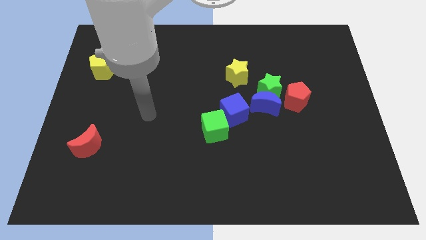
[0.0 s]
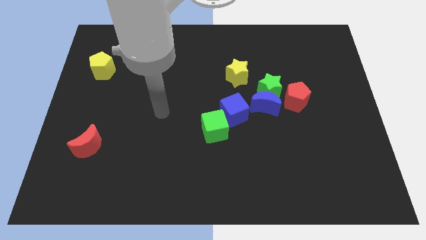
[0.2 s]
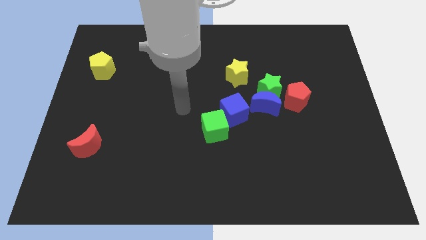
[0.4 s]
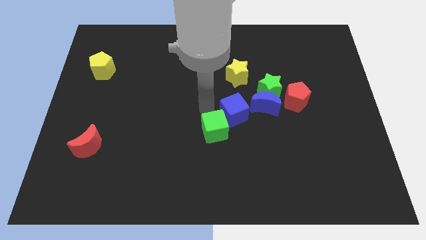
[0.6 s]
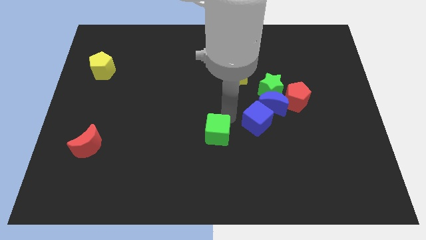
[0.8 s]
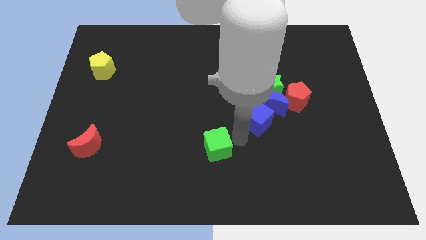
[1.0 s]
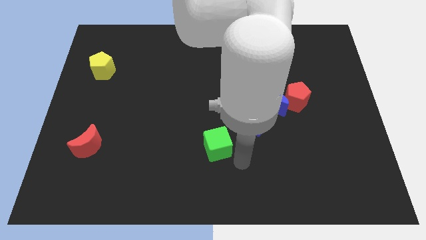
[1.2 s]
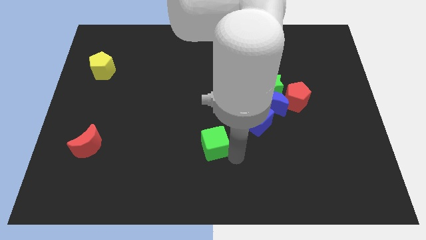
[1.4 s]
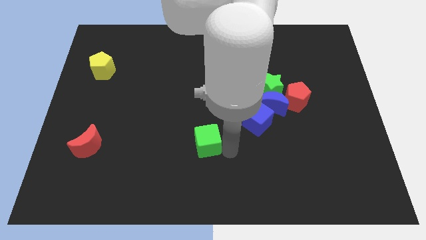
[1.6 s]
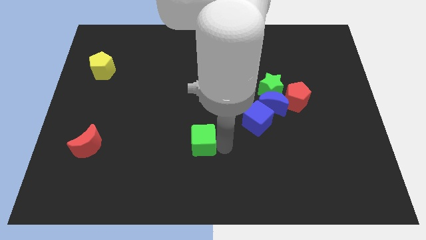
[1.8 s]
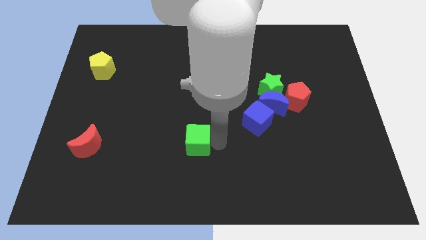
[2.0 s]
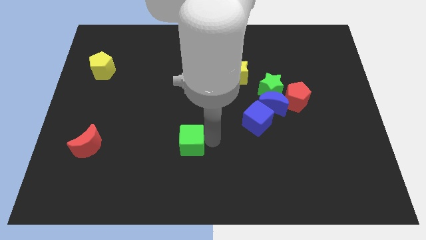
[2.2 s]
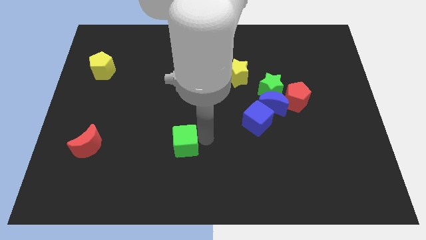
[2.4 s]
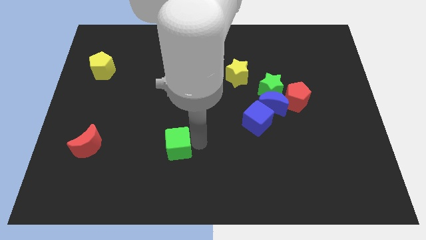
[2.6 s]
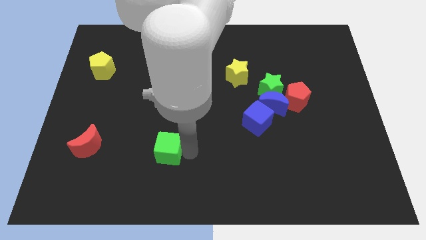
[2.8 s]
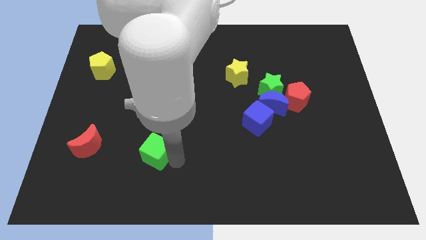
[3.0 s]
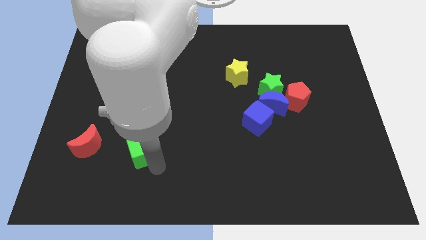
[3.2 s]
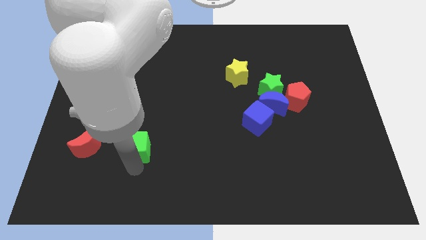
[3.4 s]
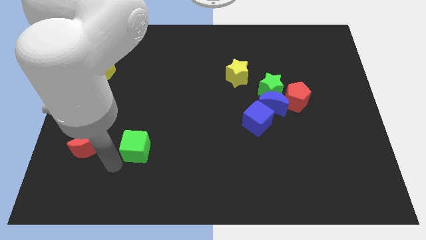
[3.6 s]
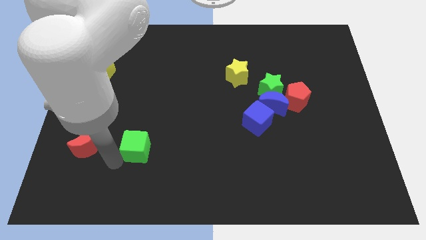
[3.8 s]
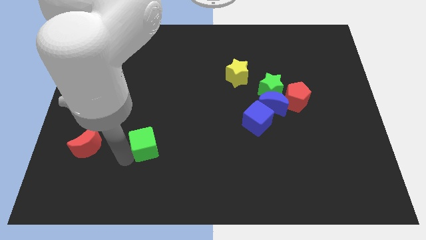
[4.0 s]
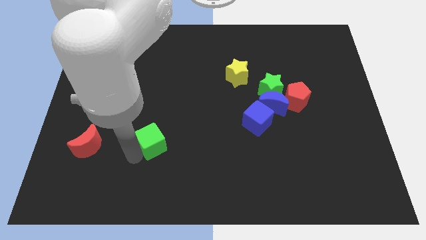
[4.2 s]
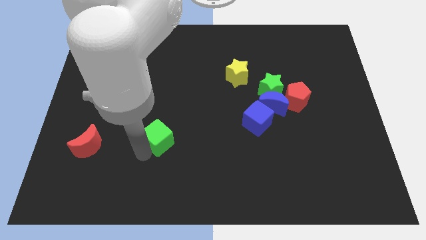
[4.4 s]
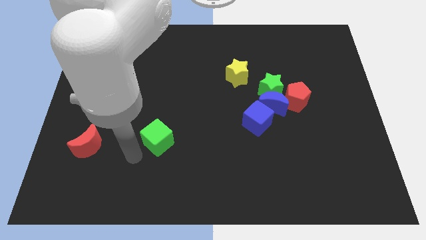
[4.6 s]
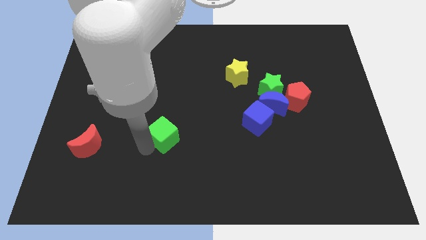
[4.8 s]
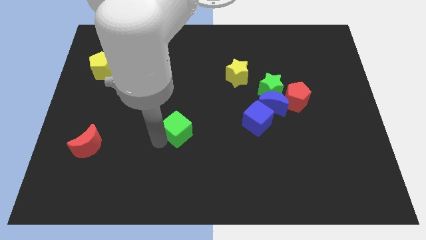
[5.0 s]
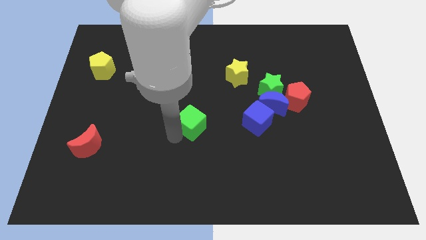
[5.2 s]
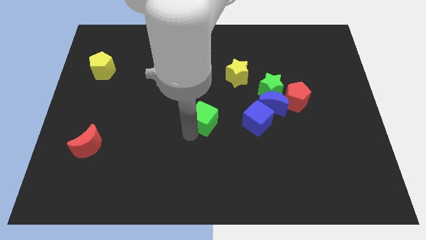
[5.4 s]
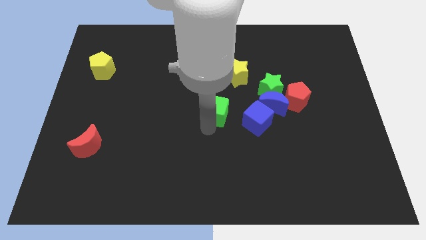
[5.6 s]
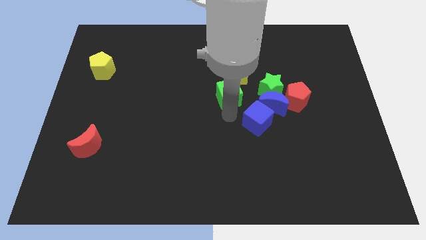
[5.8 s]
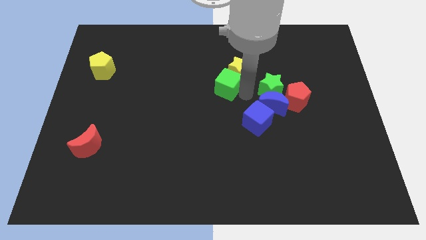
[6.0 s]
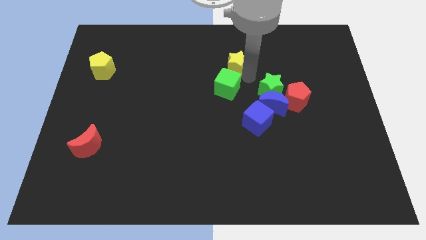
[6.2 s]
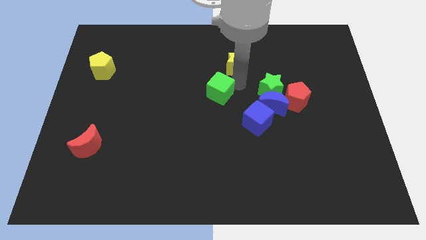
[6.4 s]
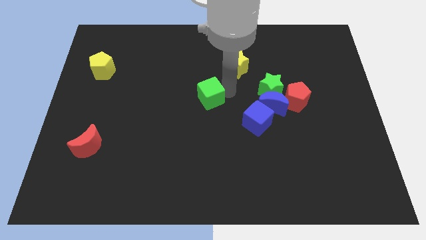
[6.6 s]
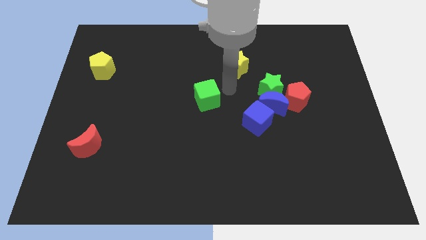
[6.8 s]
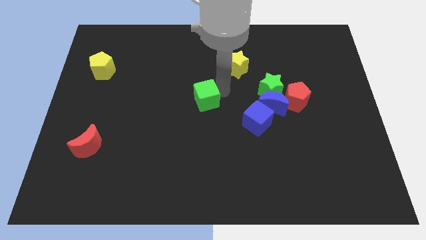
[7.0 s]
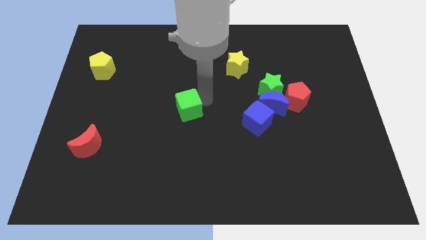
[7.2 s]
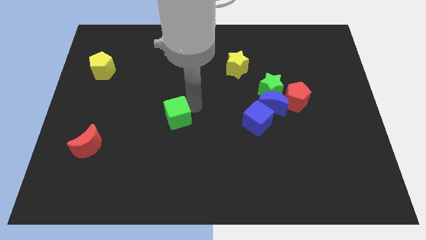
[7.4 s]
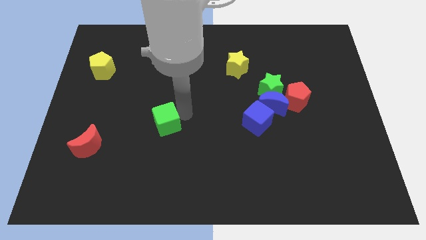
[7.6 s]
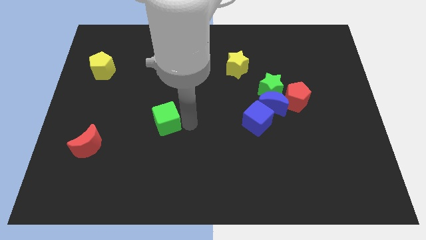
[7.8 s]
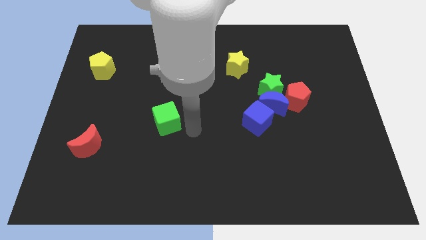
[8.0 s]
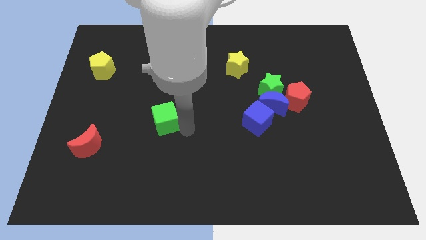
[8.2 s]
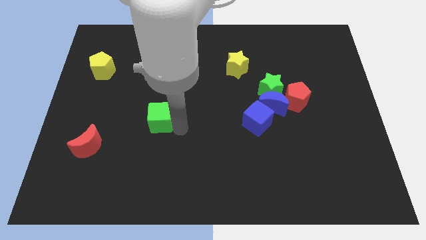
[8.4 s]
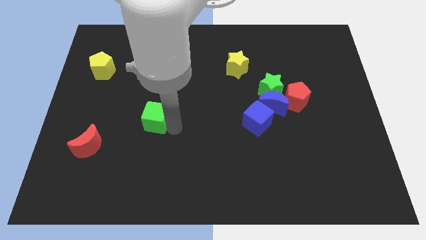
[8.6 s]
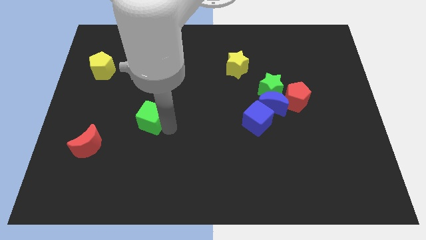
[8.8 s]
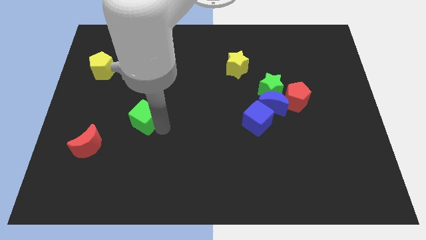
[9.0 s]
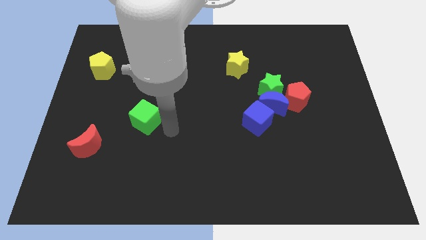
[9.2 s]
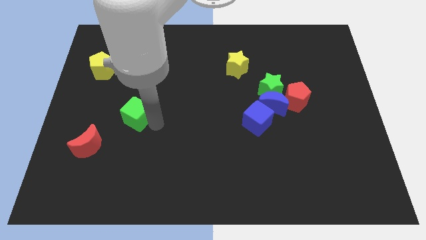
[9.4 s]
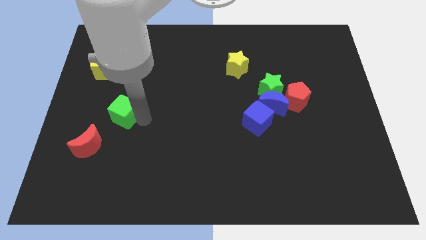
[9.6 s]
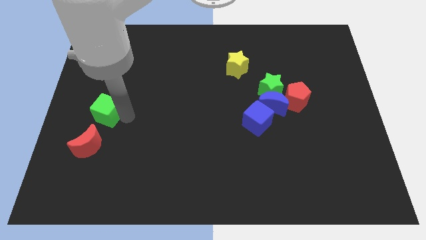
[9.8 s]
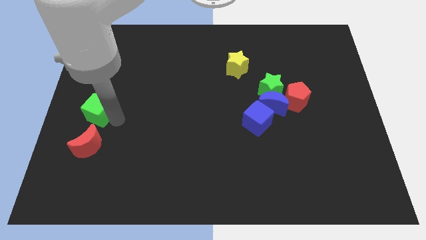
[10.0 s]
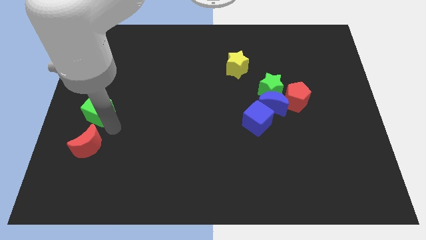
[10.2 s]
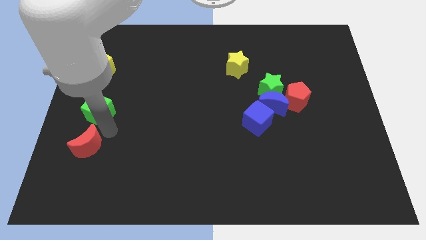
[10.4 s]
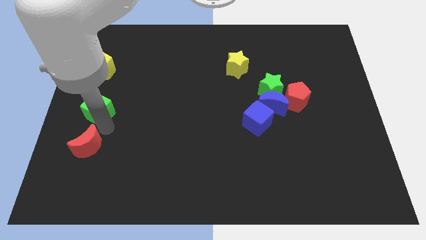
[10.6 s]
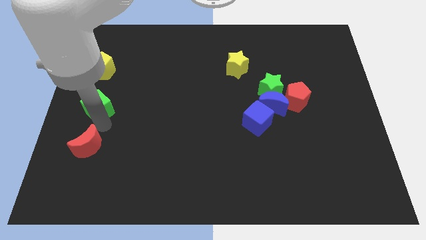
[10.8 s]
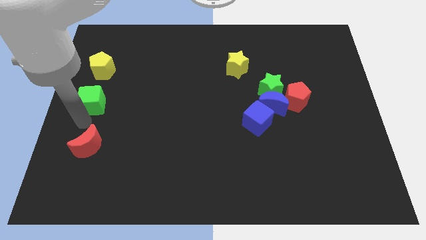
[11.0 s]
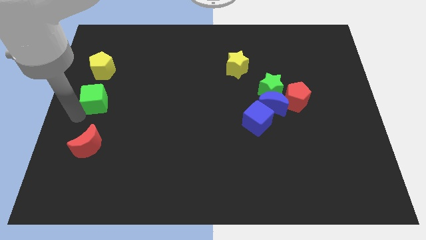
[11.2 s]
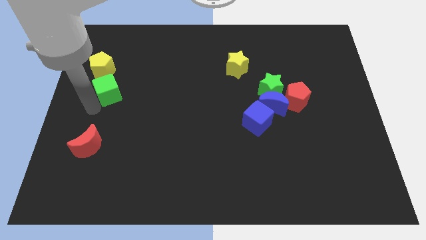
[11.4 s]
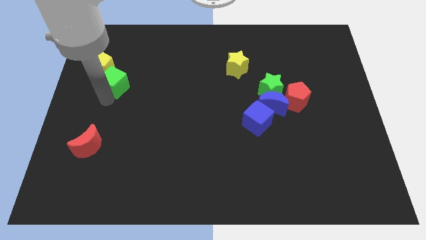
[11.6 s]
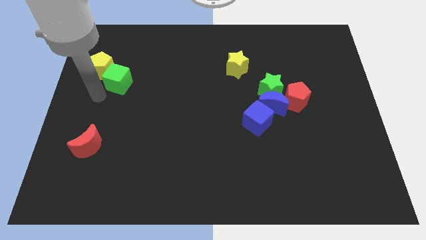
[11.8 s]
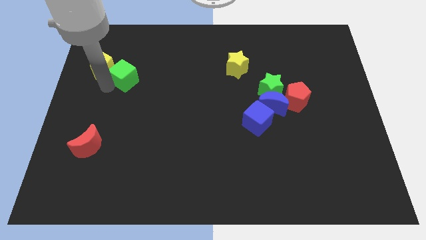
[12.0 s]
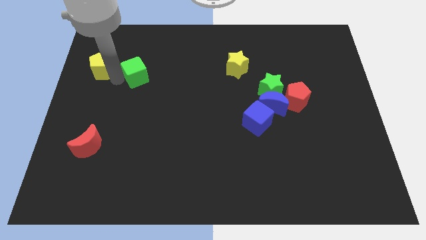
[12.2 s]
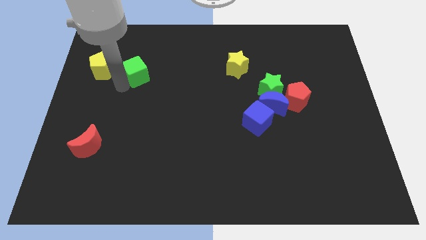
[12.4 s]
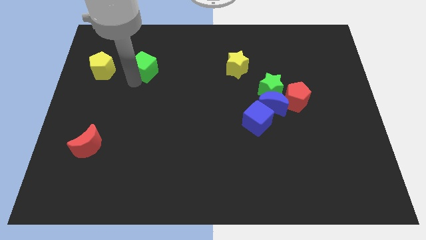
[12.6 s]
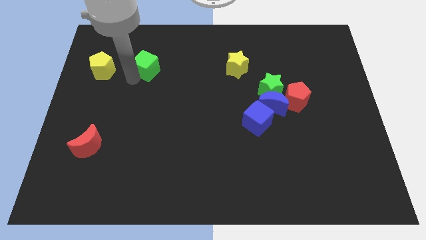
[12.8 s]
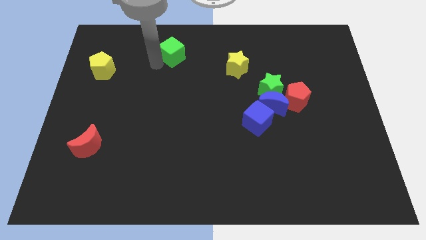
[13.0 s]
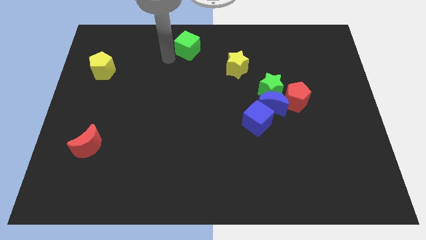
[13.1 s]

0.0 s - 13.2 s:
push the green cube to the top side

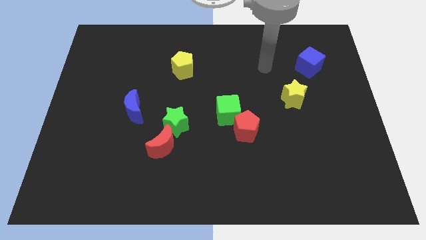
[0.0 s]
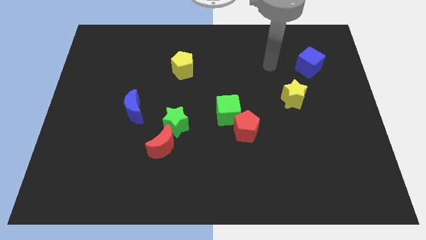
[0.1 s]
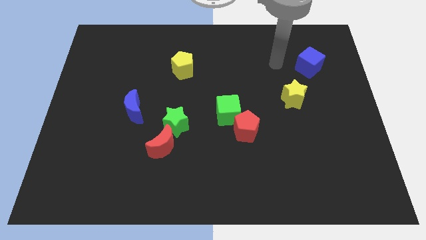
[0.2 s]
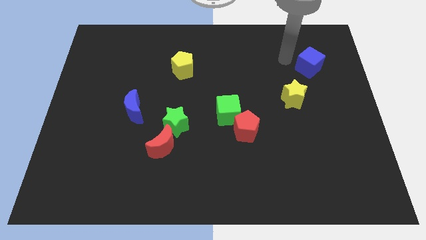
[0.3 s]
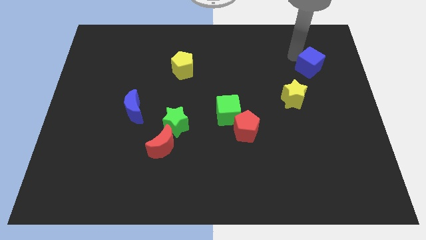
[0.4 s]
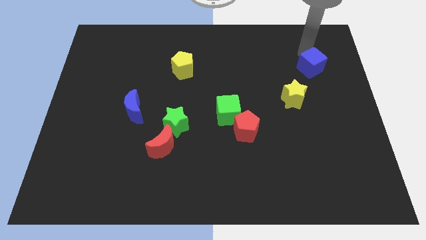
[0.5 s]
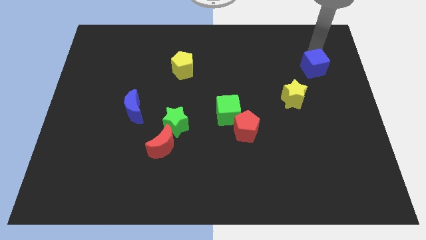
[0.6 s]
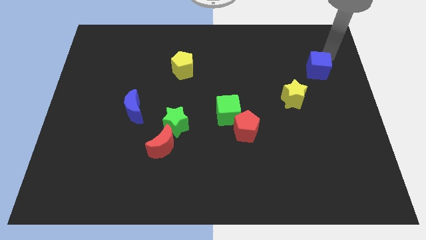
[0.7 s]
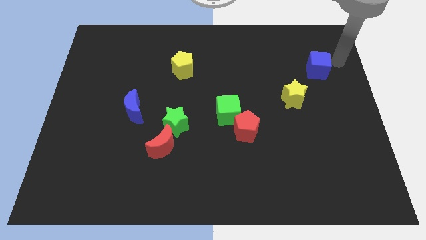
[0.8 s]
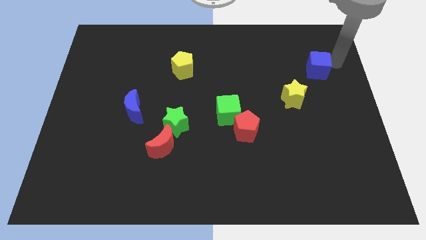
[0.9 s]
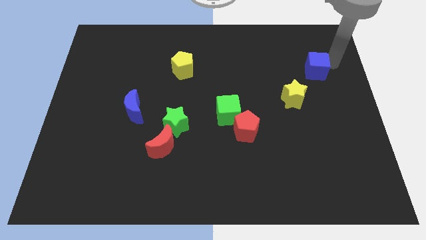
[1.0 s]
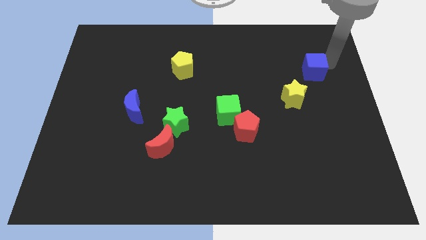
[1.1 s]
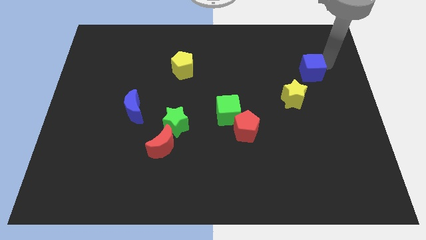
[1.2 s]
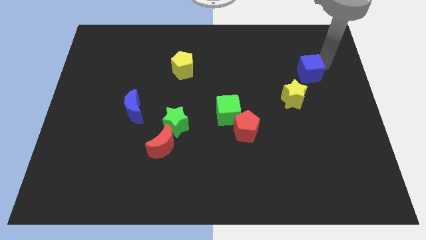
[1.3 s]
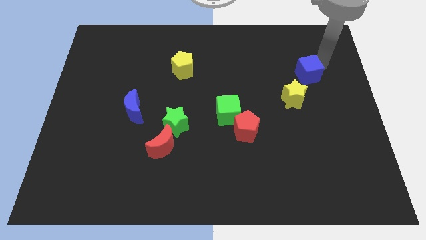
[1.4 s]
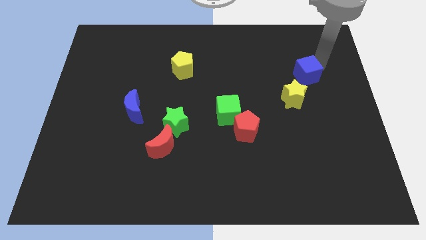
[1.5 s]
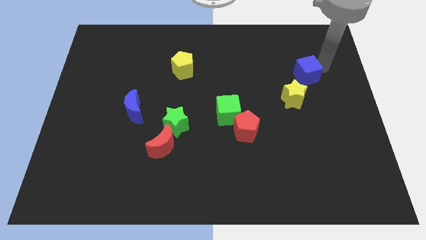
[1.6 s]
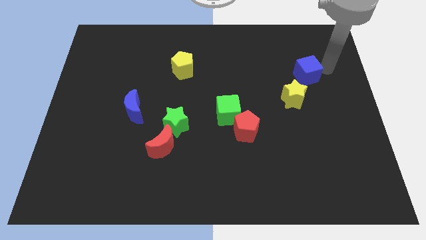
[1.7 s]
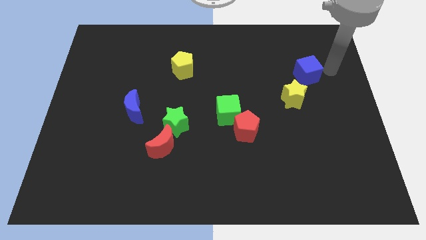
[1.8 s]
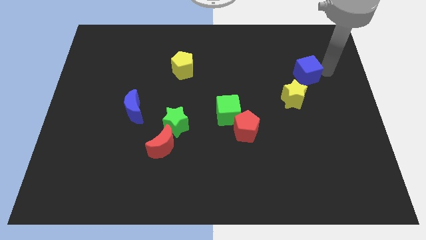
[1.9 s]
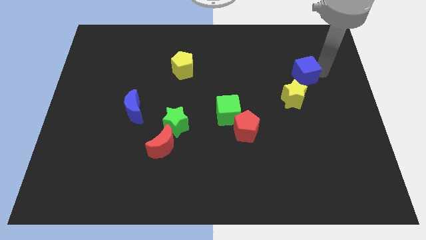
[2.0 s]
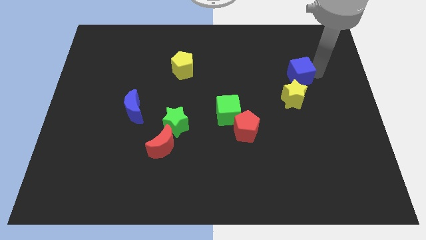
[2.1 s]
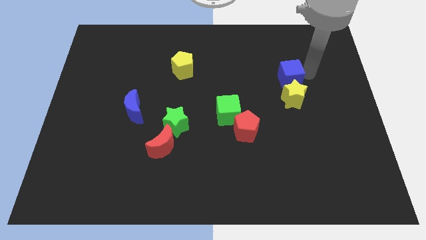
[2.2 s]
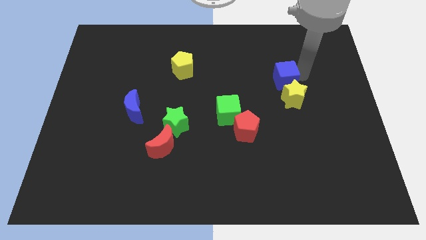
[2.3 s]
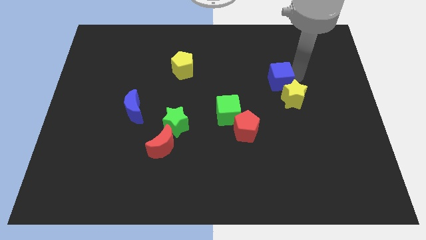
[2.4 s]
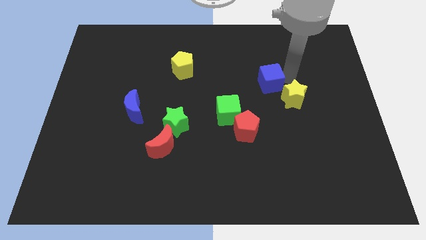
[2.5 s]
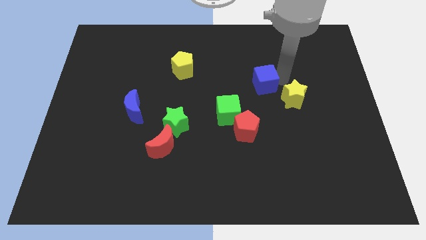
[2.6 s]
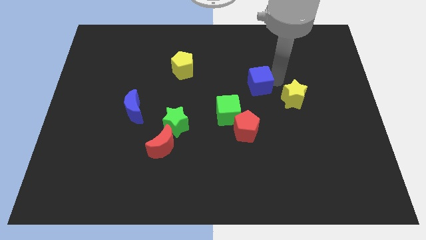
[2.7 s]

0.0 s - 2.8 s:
move the blue cube to the center of the board
